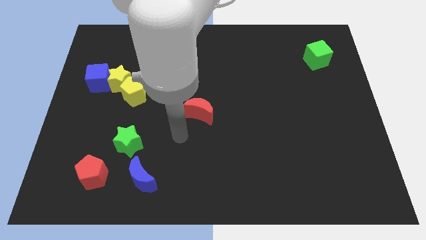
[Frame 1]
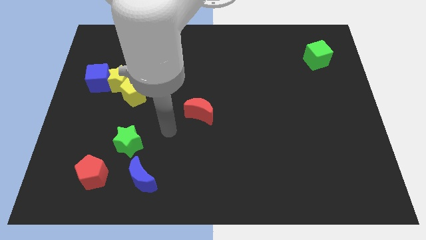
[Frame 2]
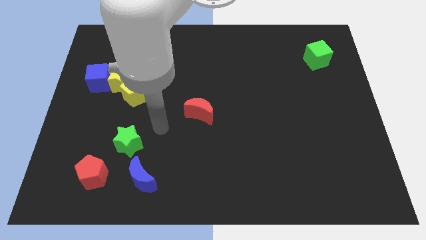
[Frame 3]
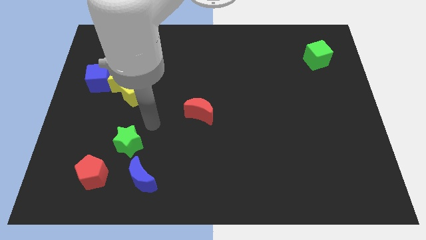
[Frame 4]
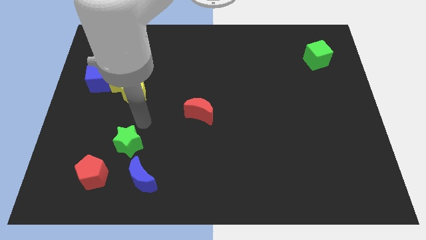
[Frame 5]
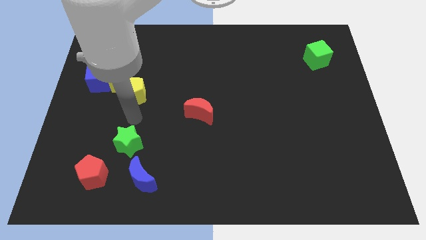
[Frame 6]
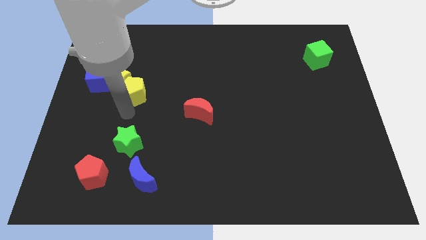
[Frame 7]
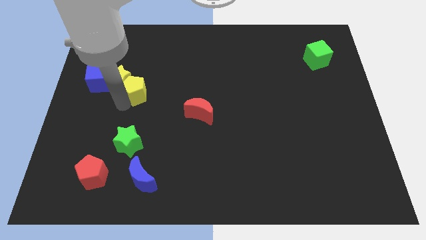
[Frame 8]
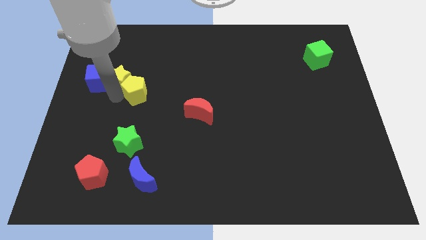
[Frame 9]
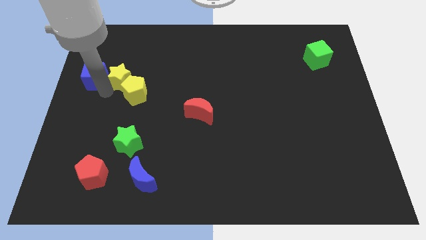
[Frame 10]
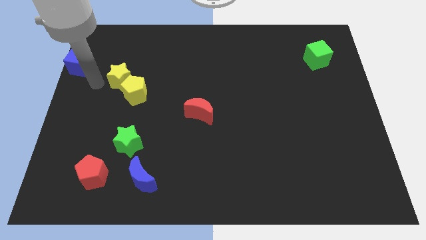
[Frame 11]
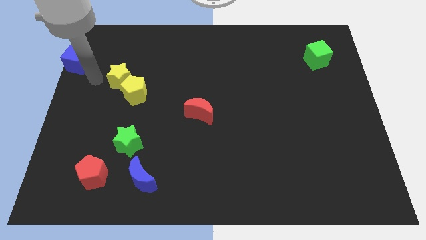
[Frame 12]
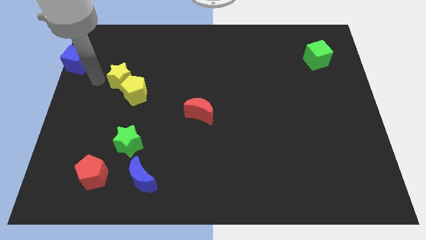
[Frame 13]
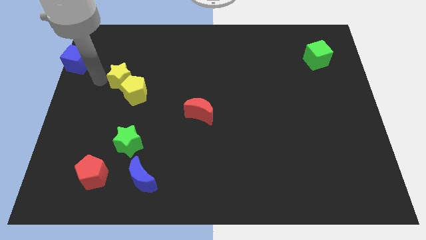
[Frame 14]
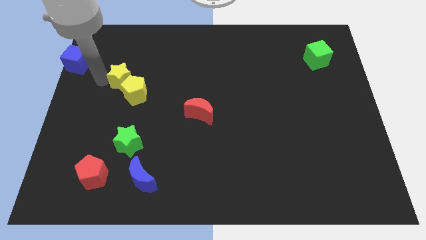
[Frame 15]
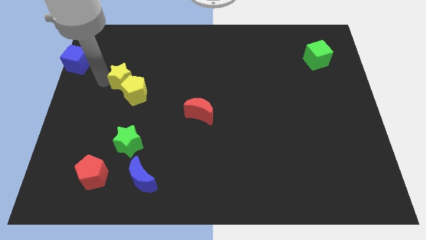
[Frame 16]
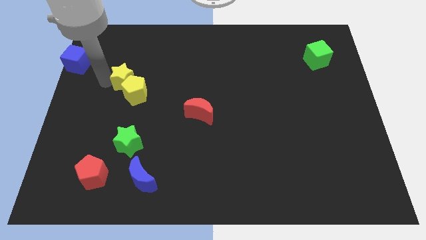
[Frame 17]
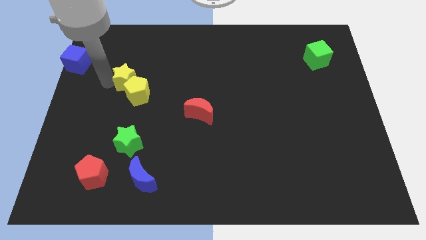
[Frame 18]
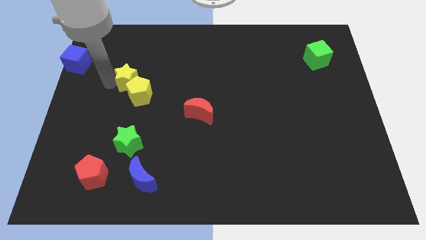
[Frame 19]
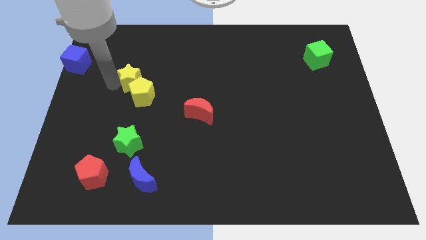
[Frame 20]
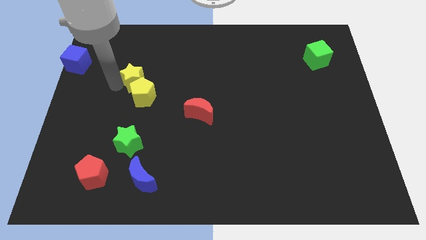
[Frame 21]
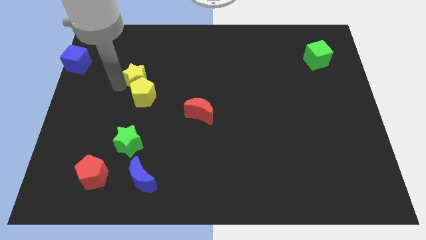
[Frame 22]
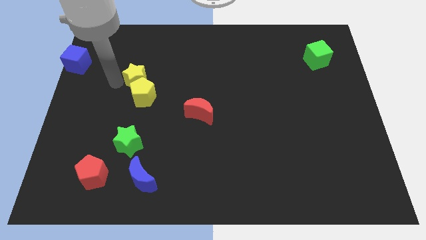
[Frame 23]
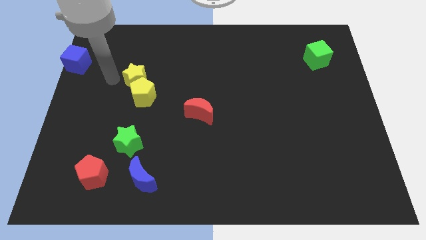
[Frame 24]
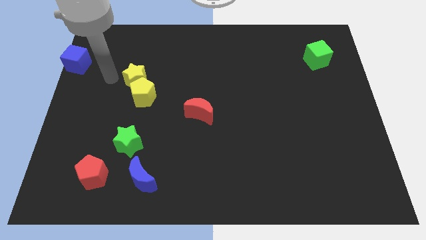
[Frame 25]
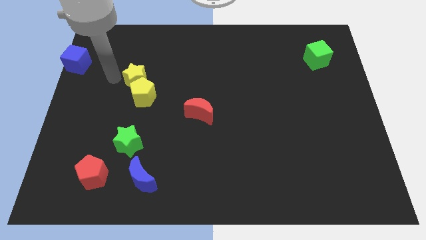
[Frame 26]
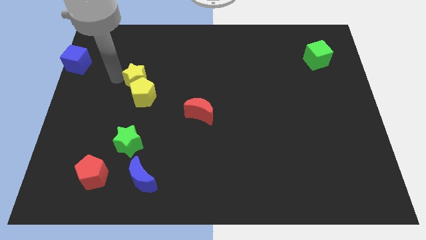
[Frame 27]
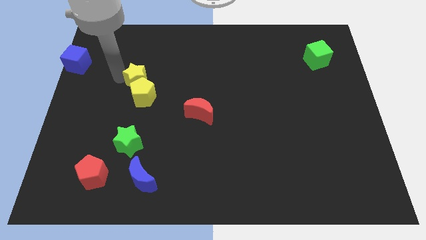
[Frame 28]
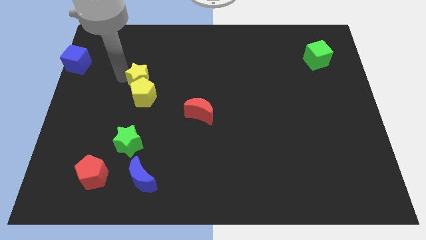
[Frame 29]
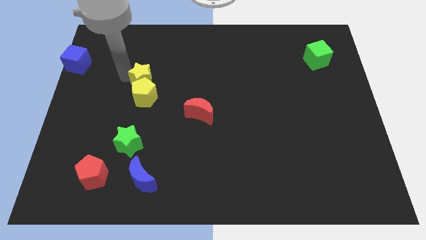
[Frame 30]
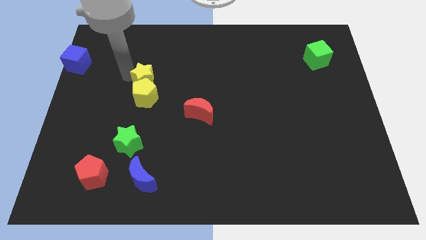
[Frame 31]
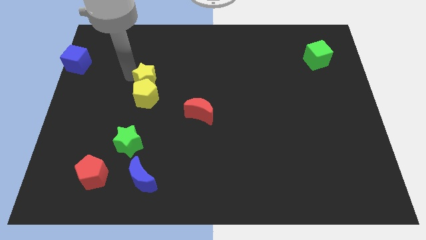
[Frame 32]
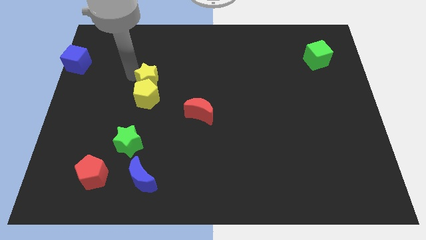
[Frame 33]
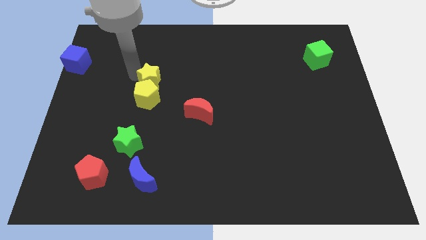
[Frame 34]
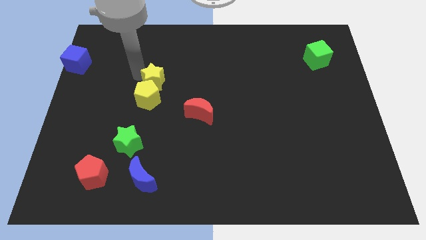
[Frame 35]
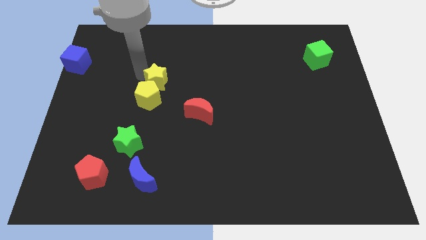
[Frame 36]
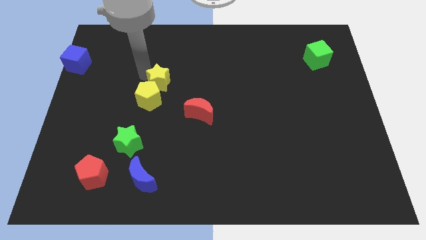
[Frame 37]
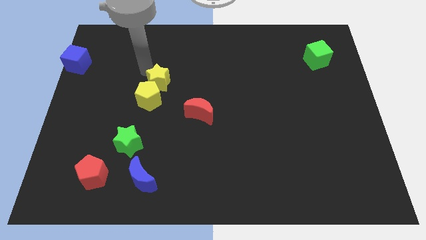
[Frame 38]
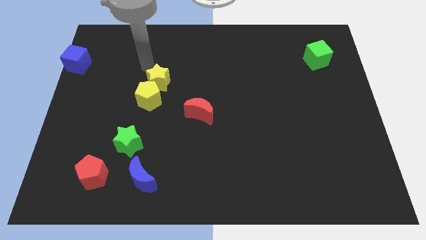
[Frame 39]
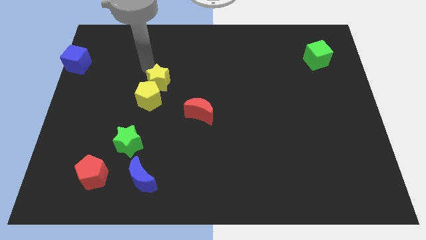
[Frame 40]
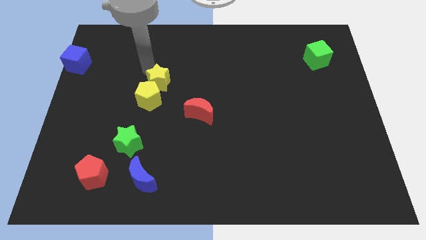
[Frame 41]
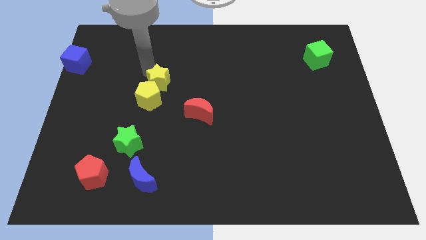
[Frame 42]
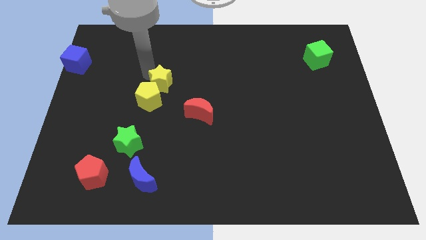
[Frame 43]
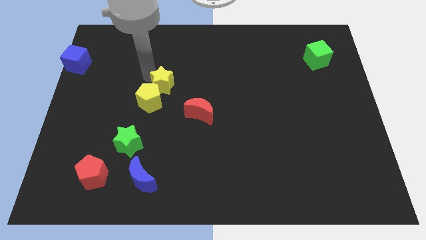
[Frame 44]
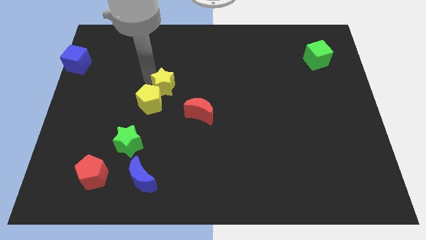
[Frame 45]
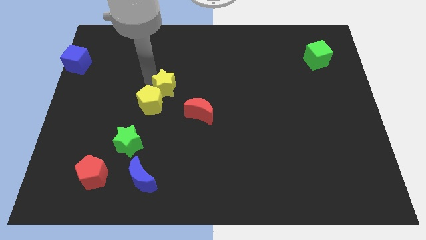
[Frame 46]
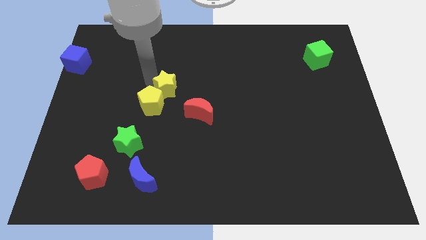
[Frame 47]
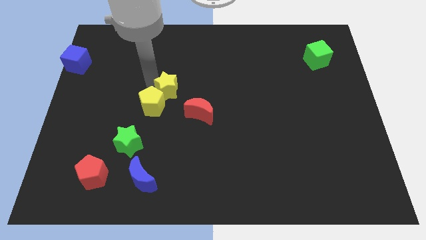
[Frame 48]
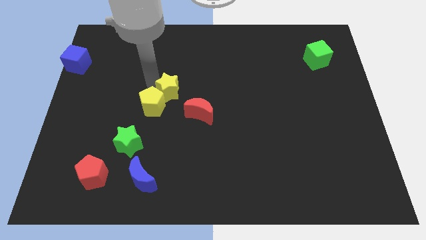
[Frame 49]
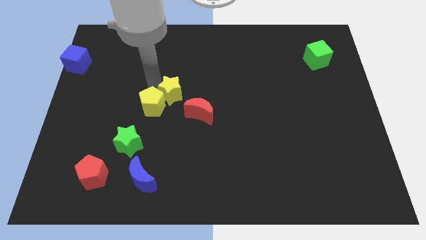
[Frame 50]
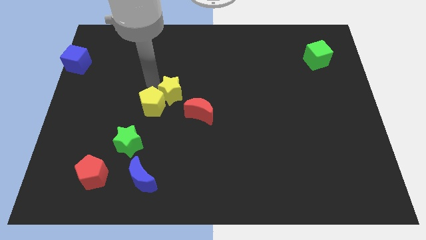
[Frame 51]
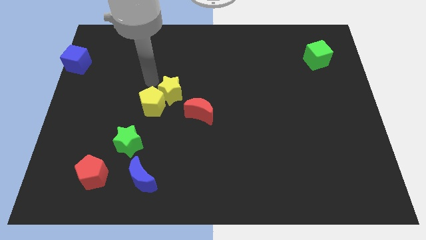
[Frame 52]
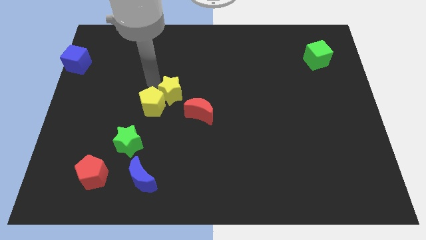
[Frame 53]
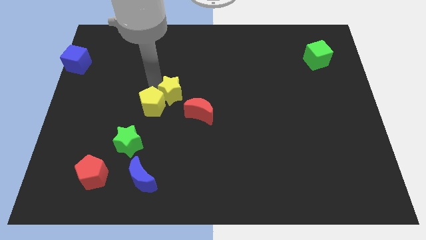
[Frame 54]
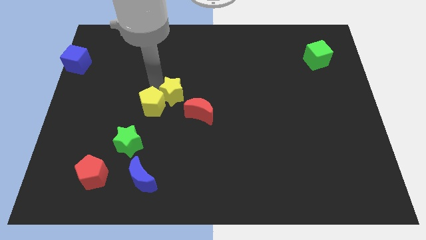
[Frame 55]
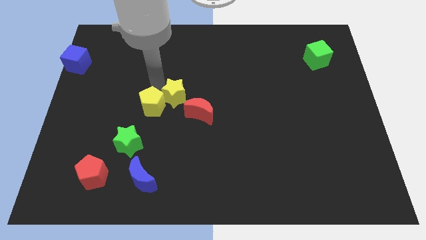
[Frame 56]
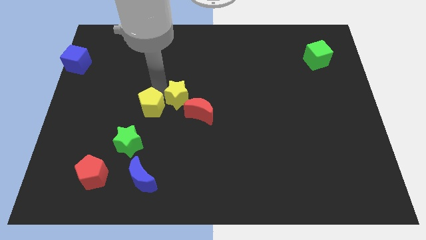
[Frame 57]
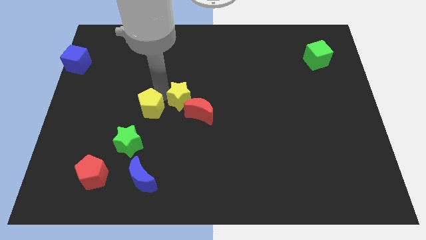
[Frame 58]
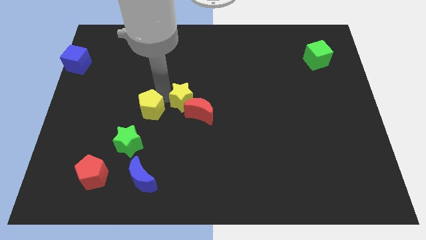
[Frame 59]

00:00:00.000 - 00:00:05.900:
slide the yellow star next to the red moon

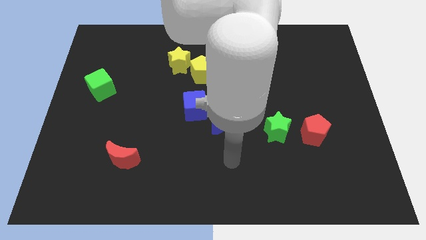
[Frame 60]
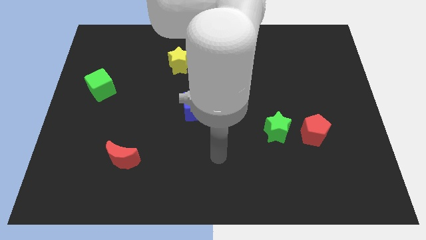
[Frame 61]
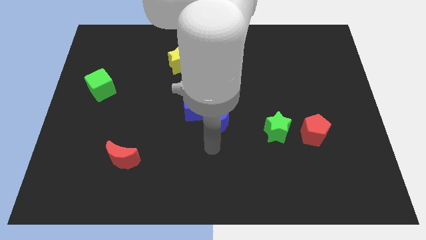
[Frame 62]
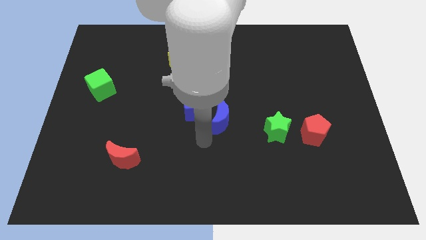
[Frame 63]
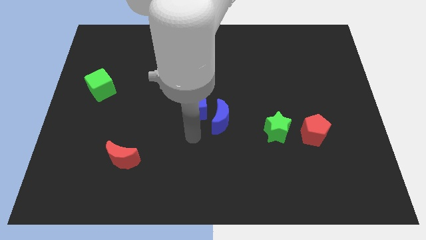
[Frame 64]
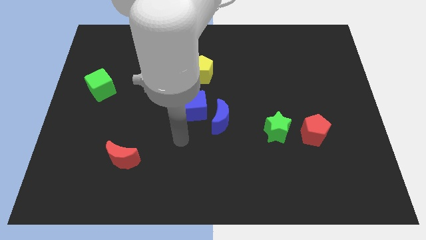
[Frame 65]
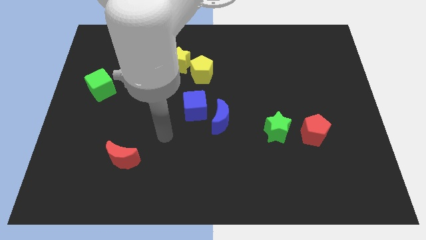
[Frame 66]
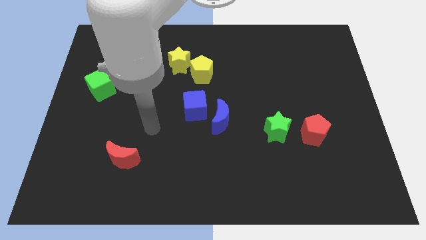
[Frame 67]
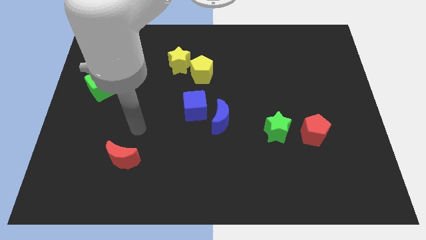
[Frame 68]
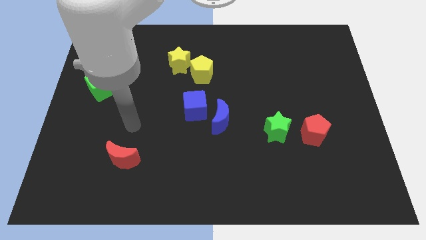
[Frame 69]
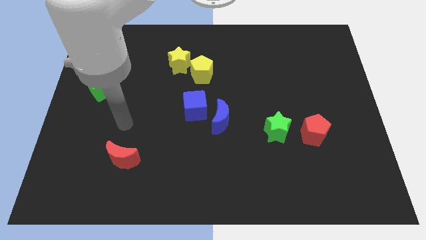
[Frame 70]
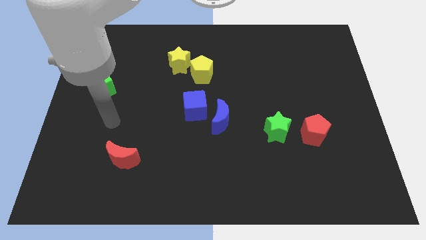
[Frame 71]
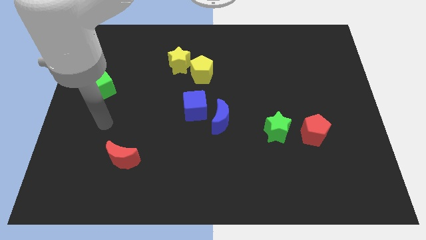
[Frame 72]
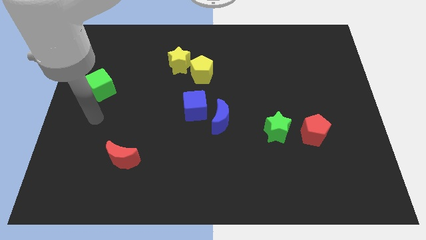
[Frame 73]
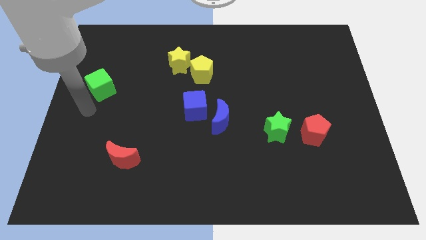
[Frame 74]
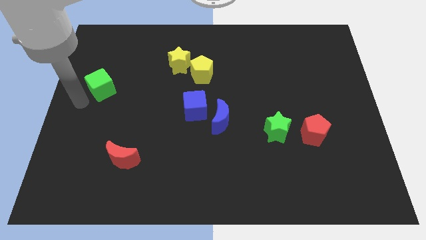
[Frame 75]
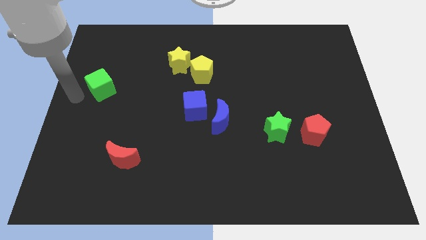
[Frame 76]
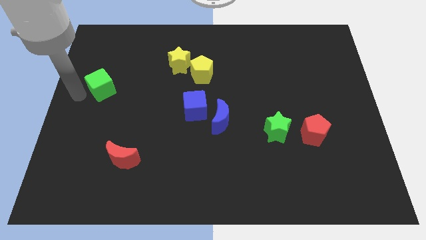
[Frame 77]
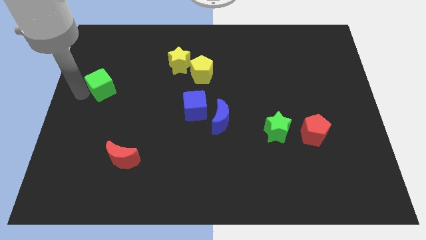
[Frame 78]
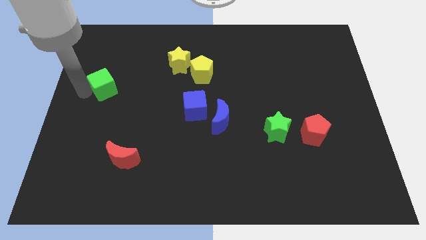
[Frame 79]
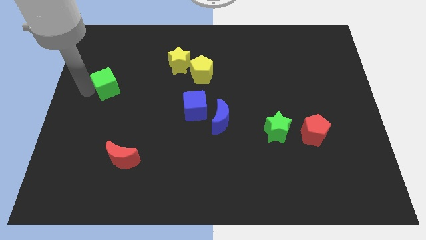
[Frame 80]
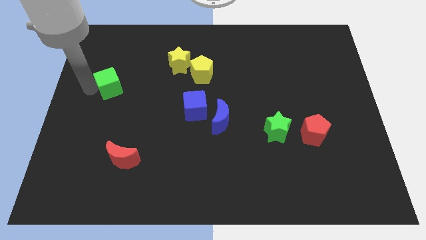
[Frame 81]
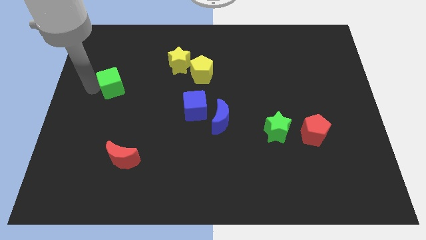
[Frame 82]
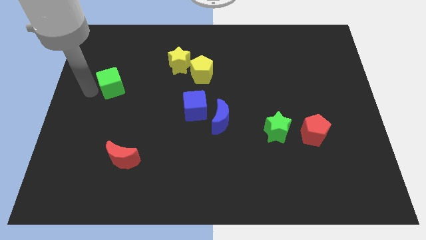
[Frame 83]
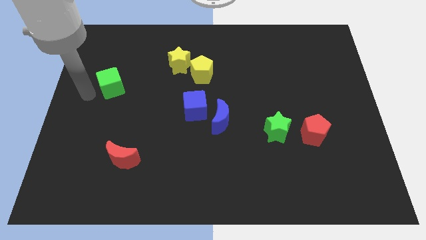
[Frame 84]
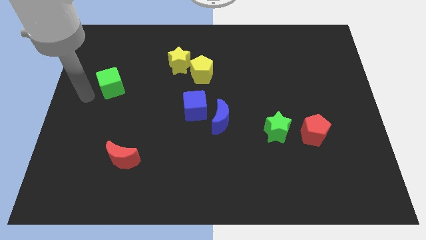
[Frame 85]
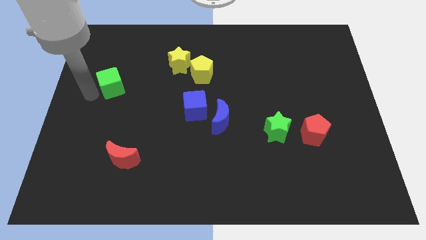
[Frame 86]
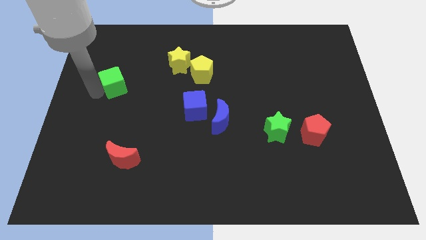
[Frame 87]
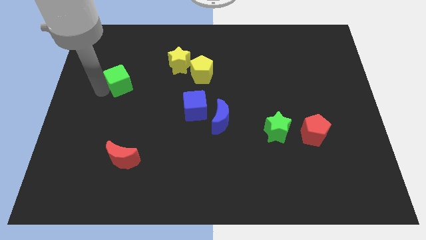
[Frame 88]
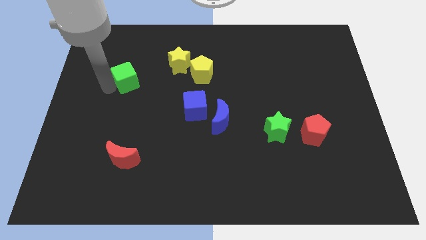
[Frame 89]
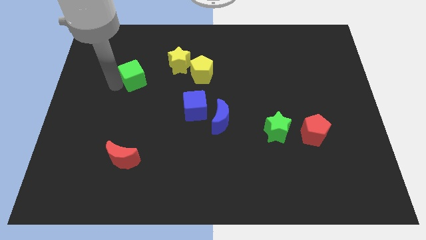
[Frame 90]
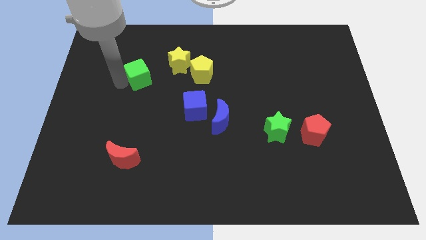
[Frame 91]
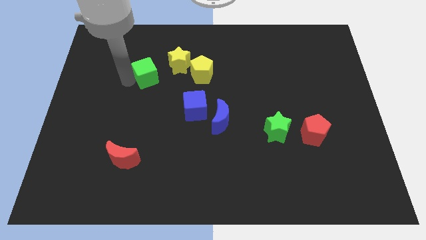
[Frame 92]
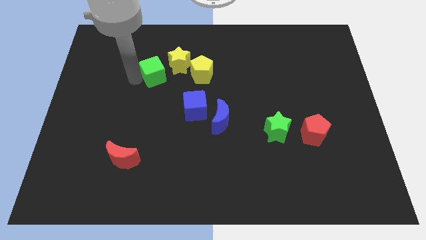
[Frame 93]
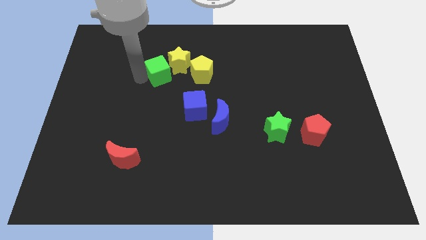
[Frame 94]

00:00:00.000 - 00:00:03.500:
slide the green cube to the yellow star
